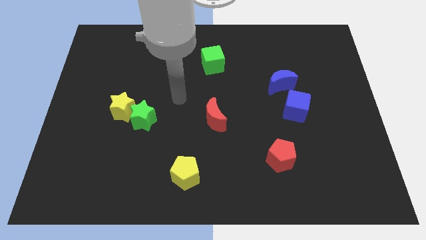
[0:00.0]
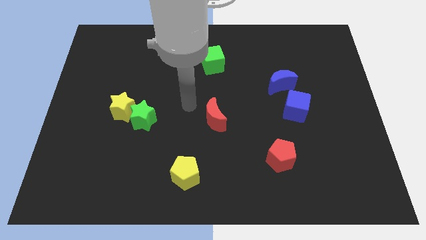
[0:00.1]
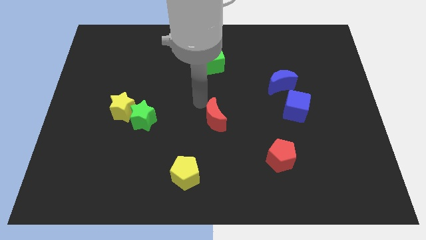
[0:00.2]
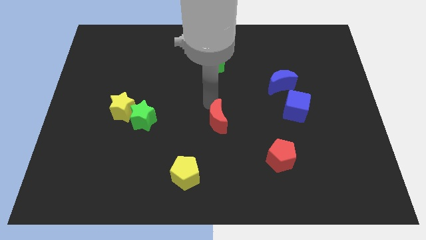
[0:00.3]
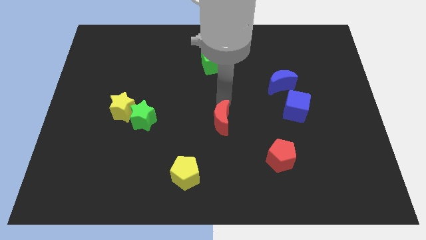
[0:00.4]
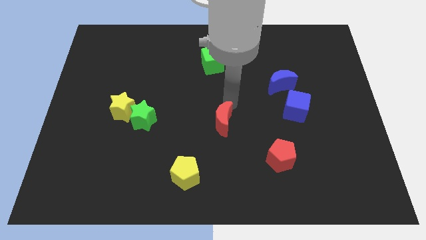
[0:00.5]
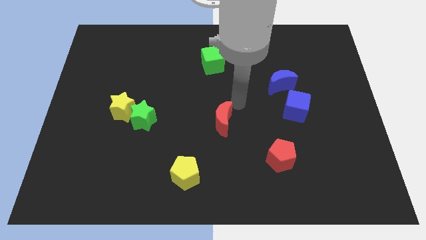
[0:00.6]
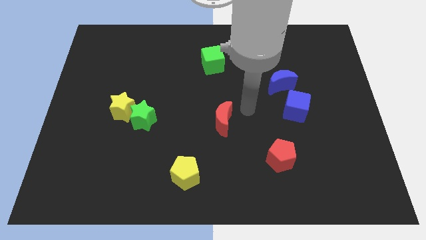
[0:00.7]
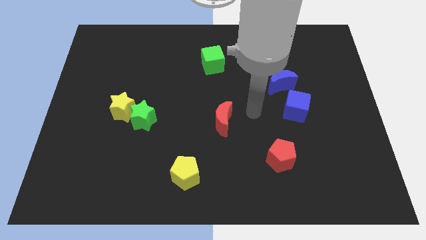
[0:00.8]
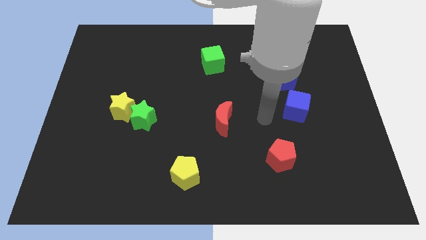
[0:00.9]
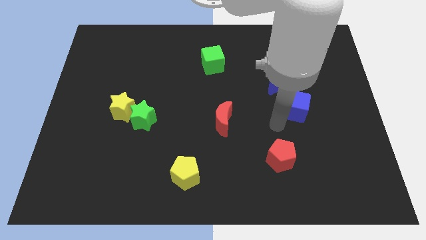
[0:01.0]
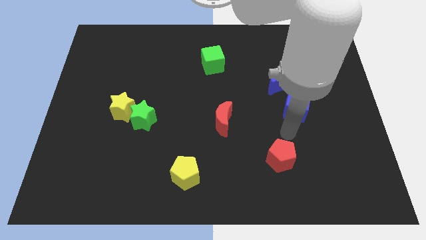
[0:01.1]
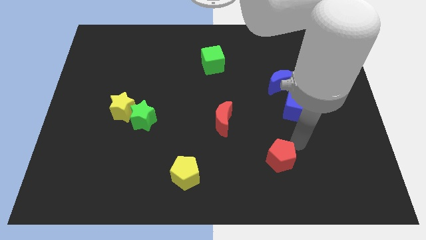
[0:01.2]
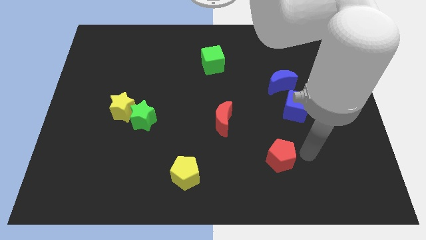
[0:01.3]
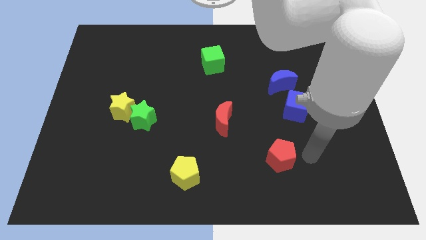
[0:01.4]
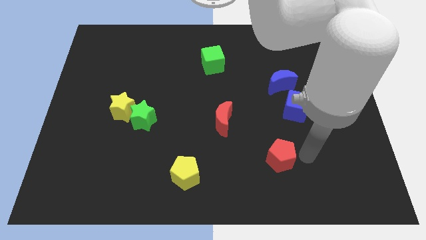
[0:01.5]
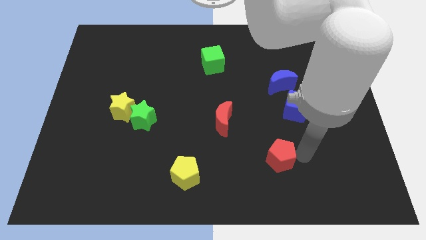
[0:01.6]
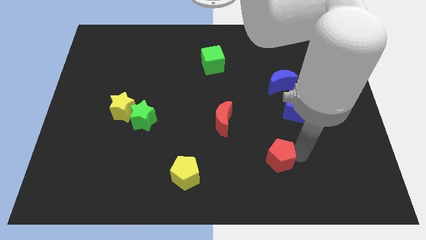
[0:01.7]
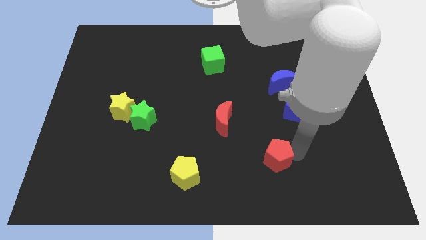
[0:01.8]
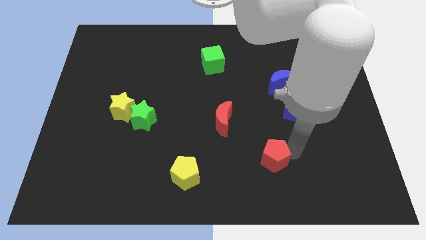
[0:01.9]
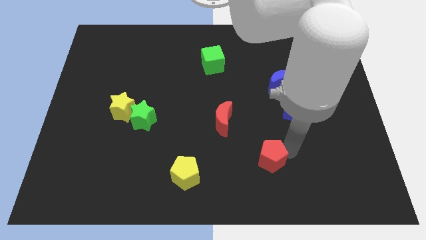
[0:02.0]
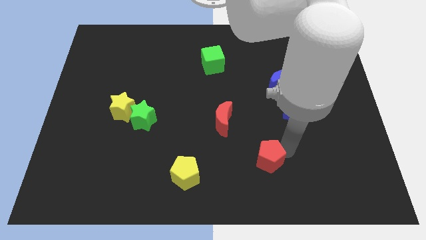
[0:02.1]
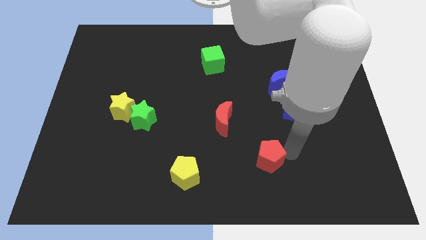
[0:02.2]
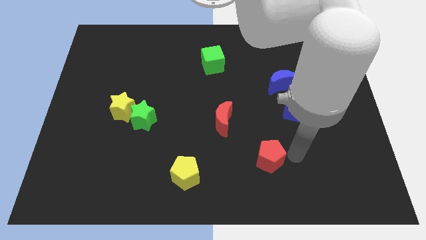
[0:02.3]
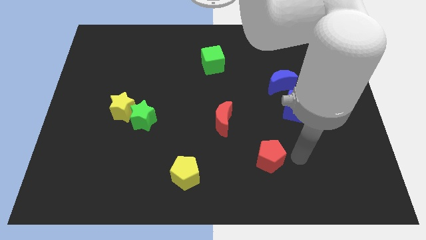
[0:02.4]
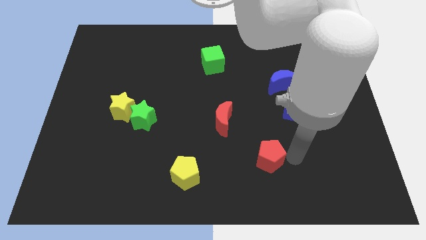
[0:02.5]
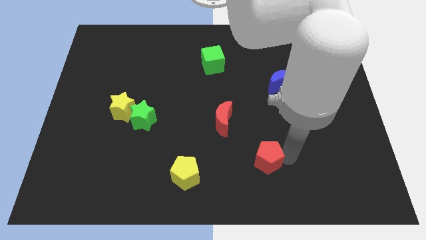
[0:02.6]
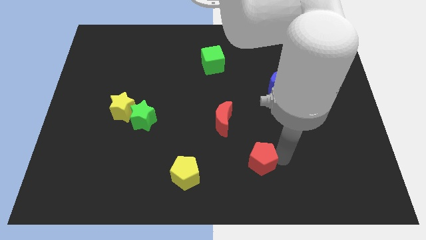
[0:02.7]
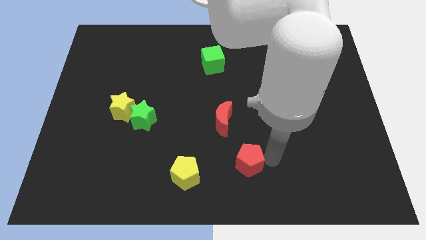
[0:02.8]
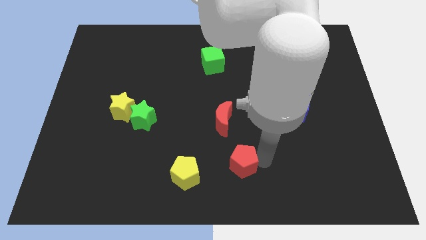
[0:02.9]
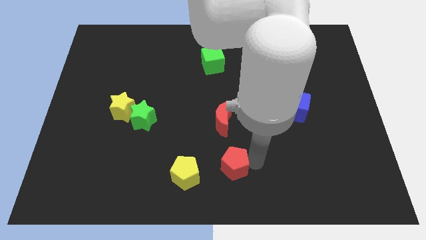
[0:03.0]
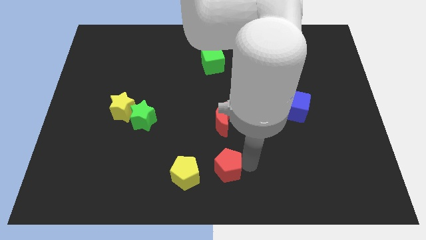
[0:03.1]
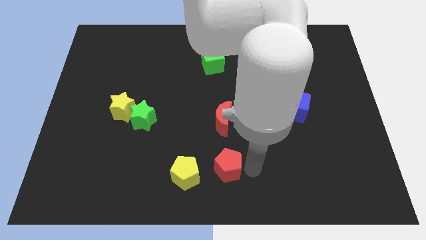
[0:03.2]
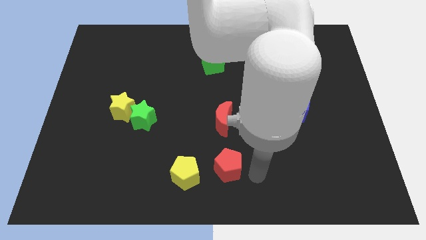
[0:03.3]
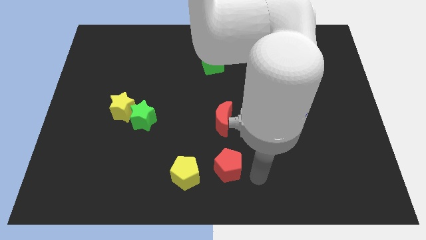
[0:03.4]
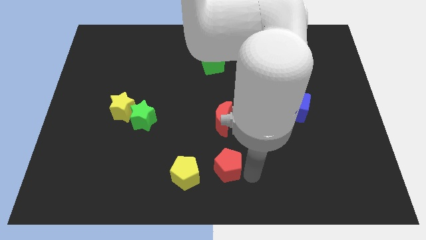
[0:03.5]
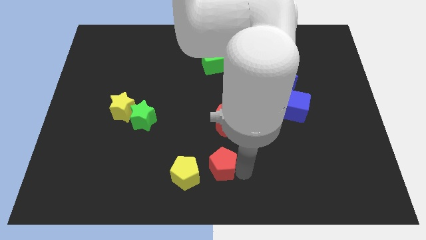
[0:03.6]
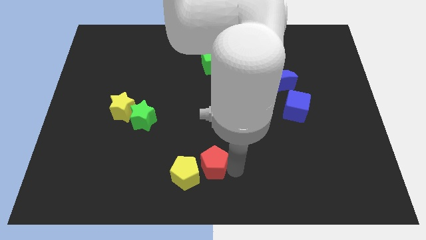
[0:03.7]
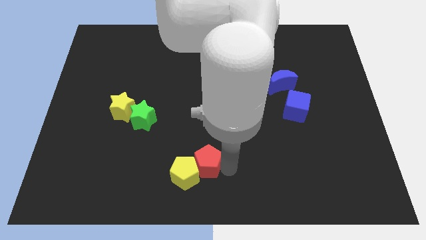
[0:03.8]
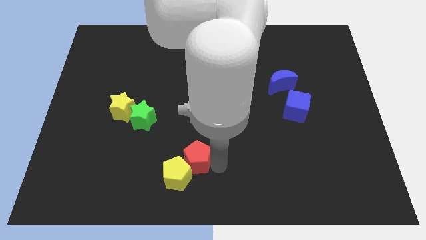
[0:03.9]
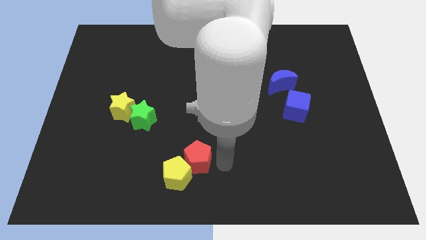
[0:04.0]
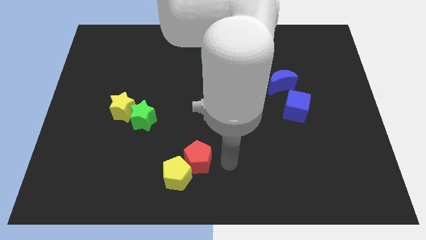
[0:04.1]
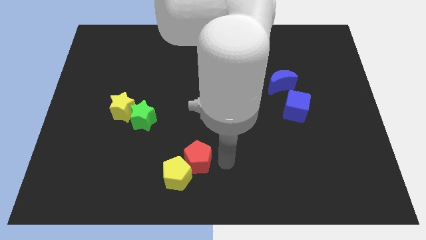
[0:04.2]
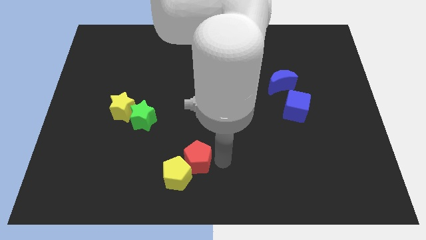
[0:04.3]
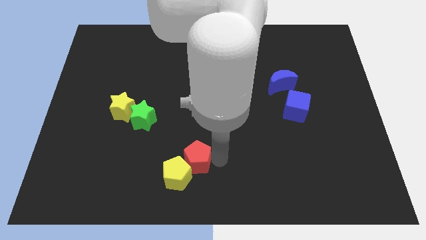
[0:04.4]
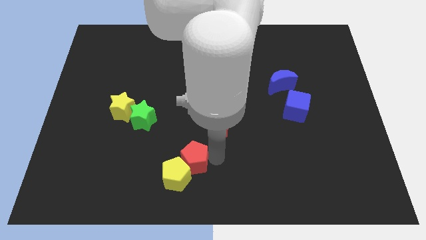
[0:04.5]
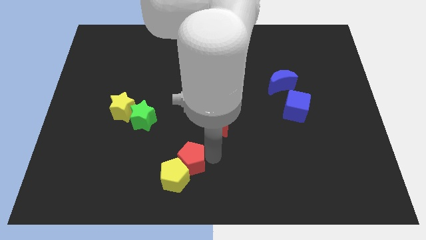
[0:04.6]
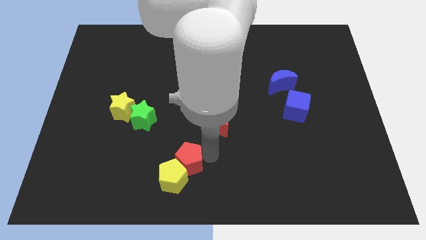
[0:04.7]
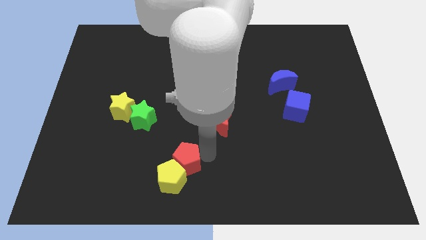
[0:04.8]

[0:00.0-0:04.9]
push the red pentagon to the left

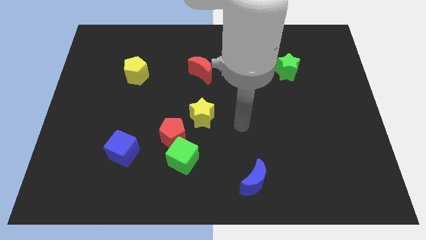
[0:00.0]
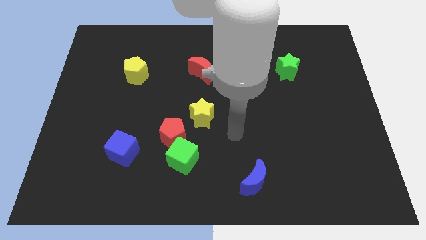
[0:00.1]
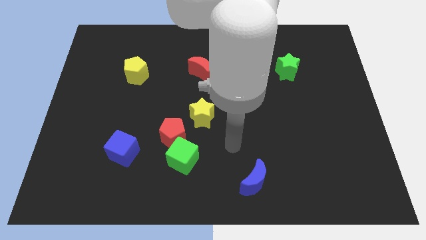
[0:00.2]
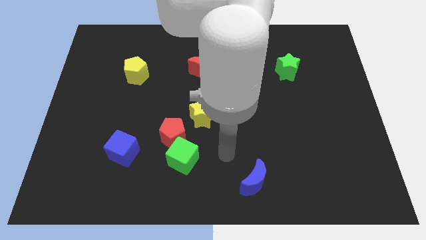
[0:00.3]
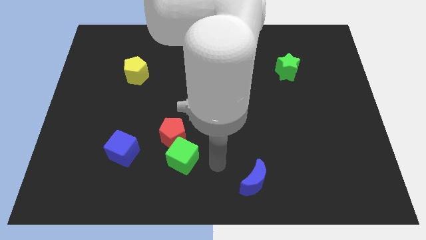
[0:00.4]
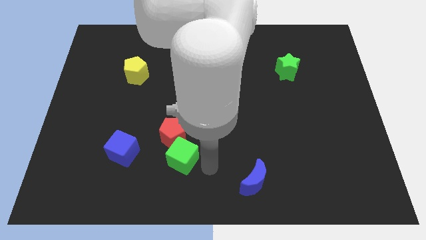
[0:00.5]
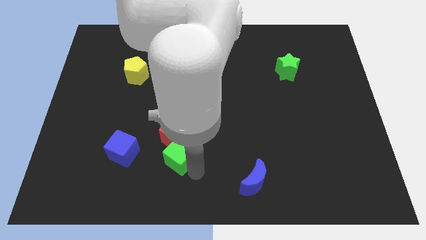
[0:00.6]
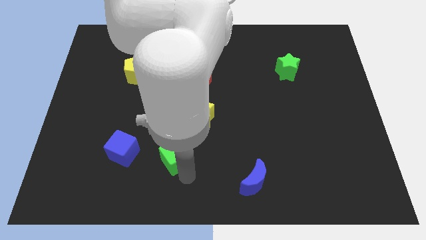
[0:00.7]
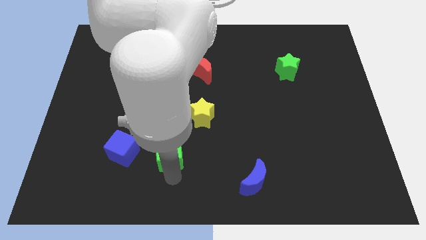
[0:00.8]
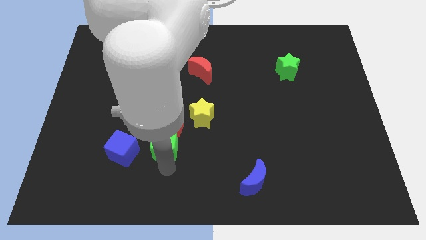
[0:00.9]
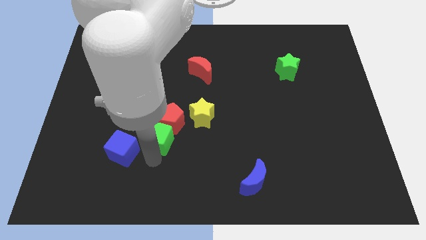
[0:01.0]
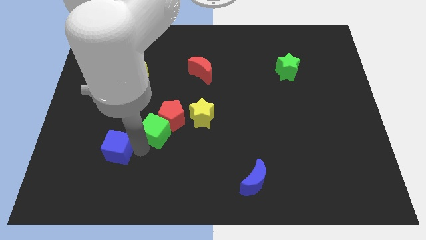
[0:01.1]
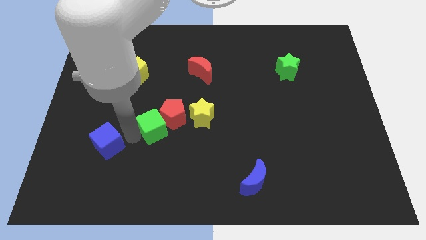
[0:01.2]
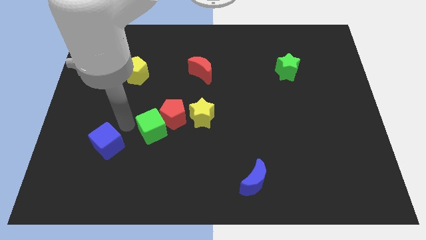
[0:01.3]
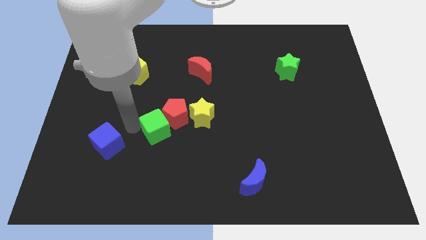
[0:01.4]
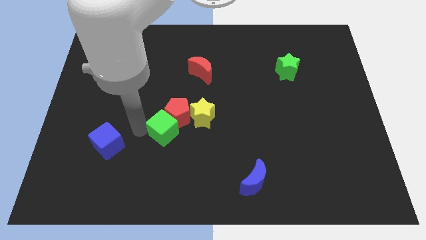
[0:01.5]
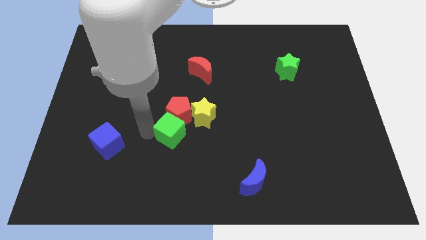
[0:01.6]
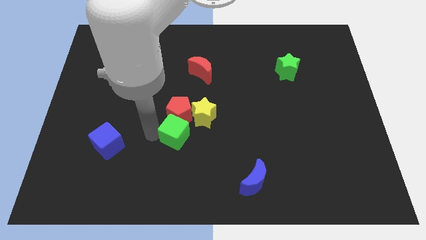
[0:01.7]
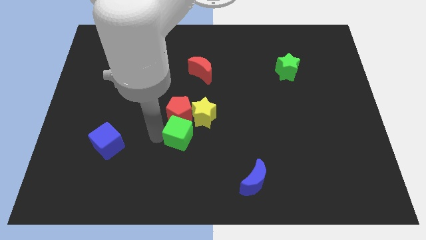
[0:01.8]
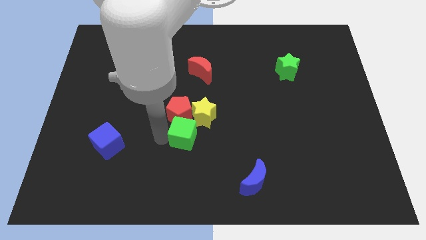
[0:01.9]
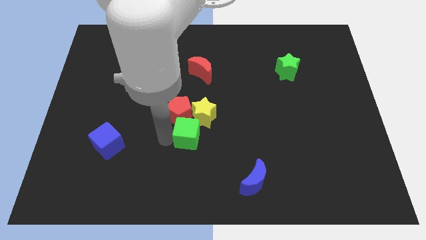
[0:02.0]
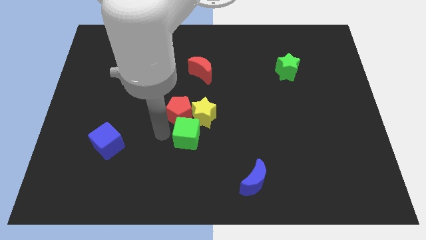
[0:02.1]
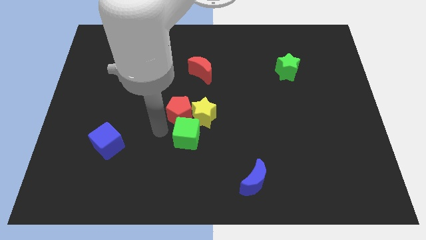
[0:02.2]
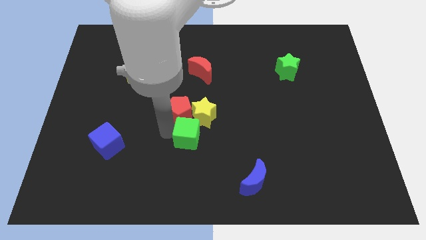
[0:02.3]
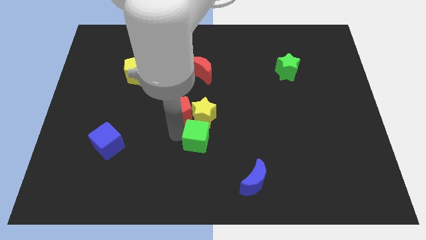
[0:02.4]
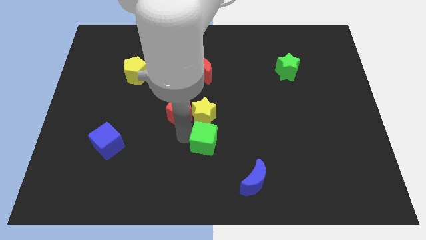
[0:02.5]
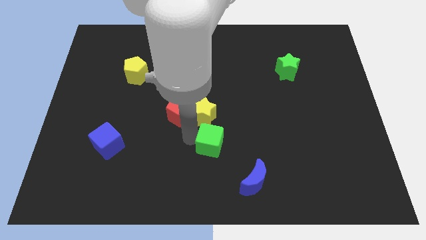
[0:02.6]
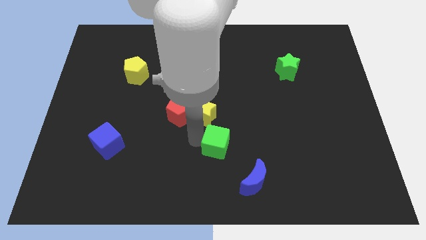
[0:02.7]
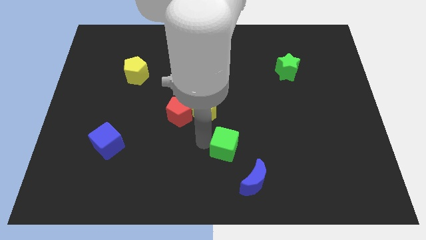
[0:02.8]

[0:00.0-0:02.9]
push the green cube to the right a bit

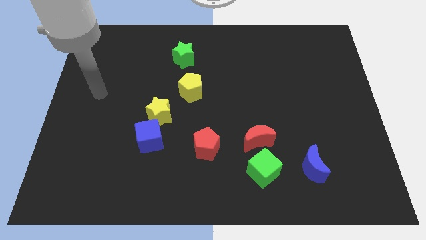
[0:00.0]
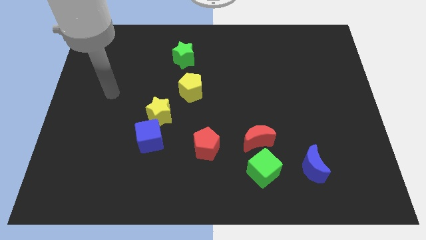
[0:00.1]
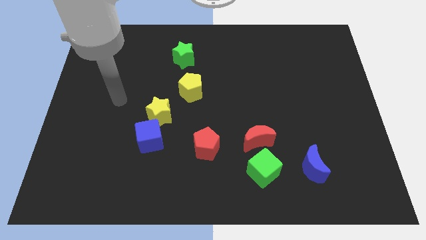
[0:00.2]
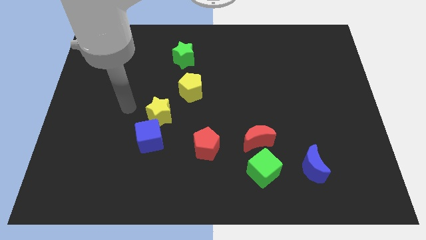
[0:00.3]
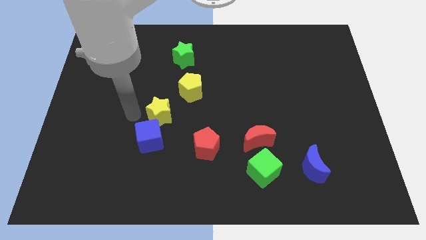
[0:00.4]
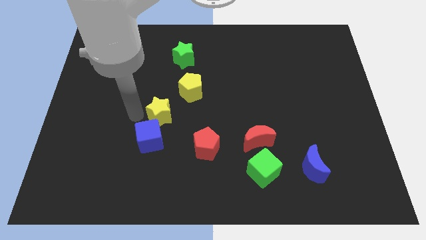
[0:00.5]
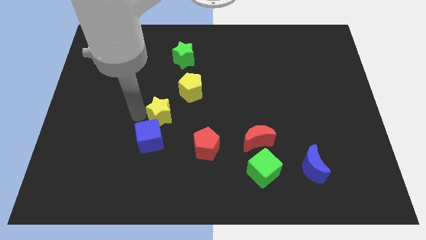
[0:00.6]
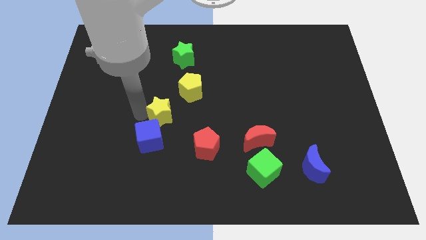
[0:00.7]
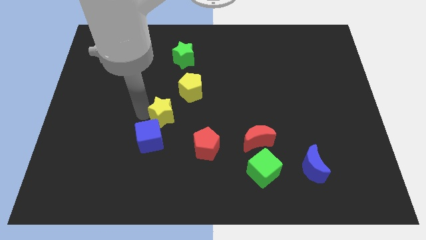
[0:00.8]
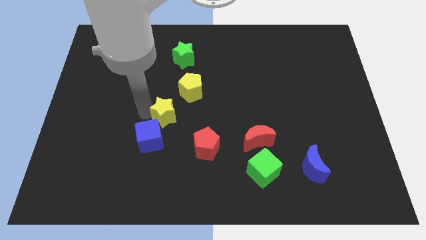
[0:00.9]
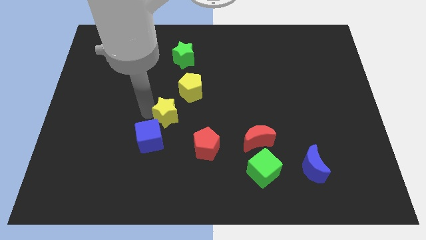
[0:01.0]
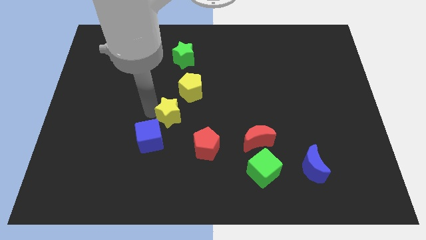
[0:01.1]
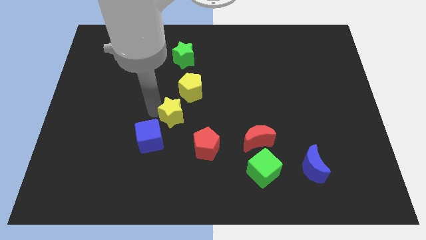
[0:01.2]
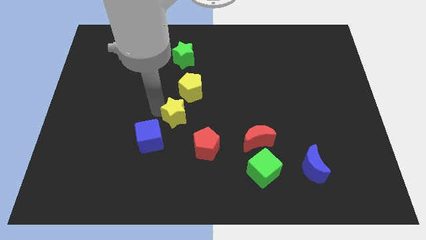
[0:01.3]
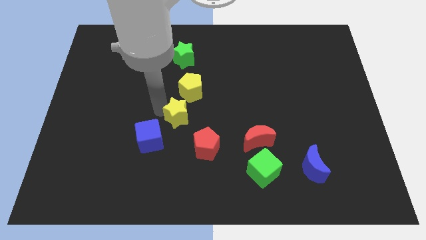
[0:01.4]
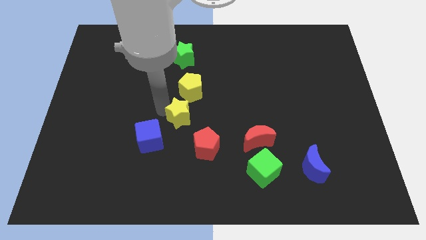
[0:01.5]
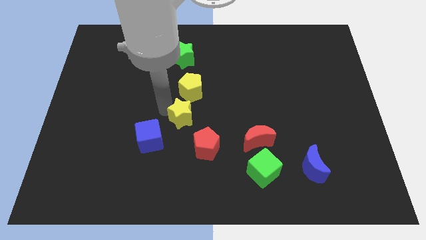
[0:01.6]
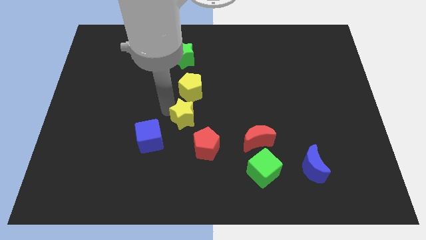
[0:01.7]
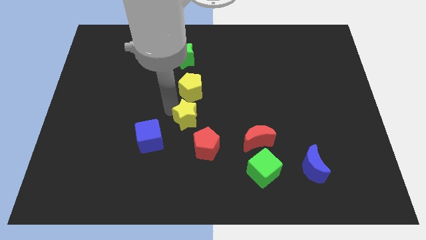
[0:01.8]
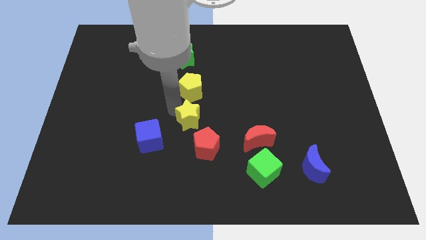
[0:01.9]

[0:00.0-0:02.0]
slightly slide the yellow star right
